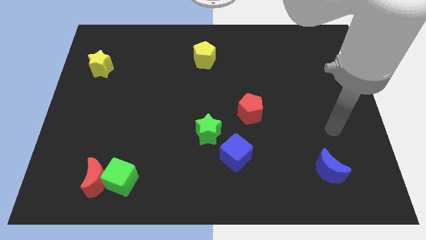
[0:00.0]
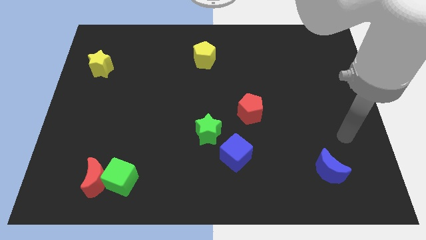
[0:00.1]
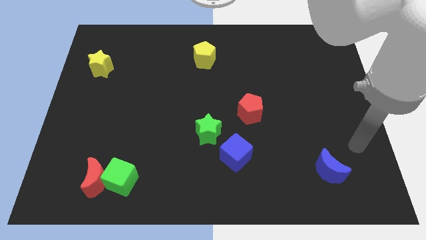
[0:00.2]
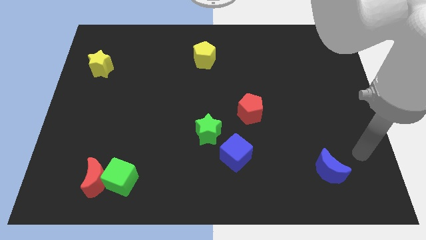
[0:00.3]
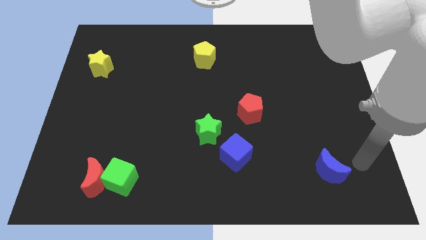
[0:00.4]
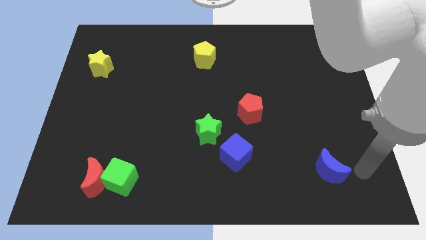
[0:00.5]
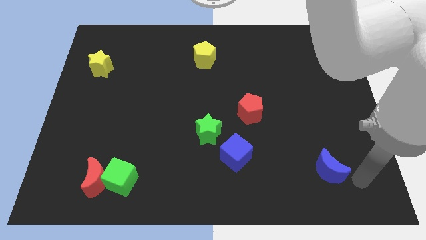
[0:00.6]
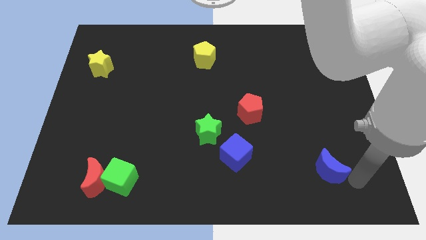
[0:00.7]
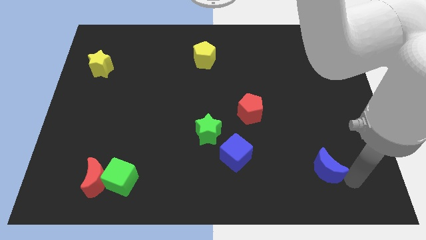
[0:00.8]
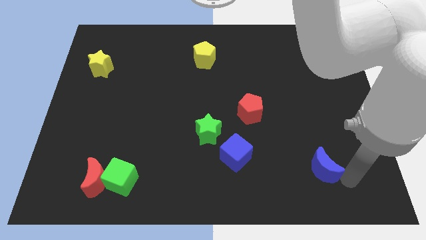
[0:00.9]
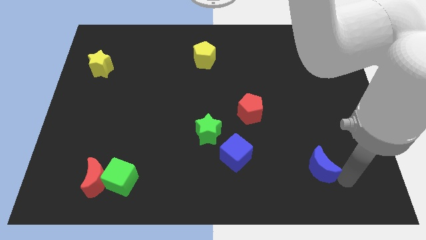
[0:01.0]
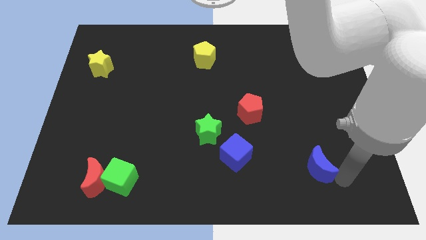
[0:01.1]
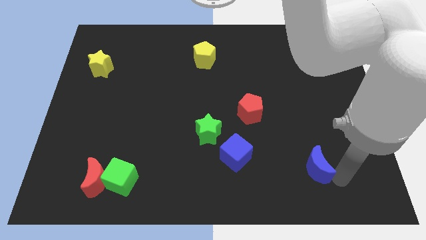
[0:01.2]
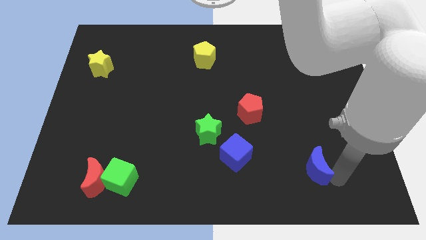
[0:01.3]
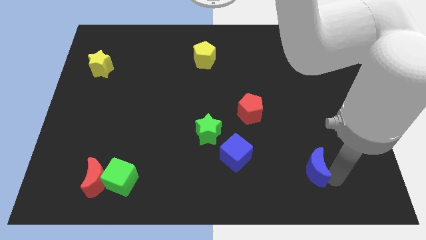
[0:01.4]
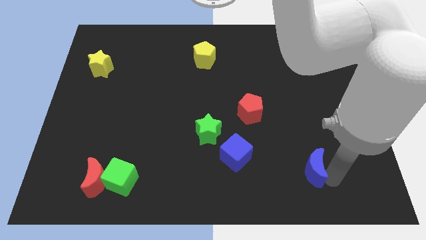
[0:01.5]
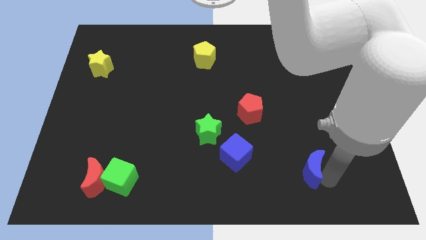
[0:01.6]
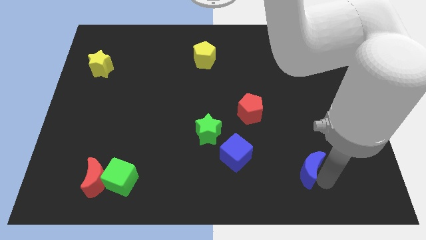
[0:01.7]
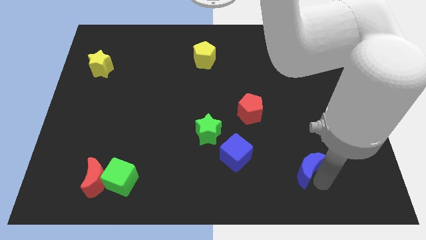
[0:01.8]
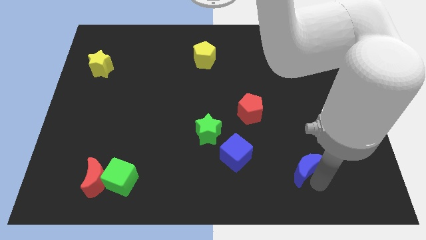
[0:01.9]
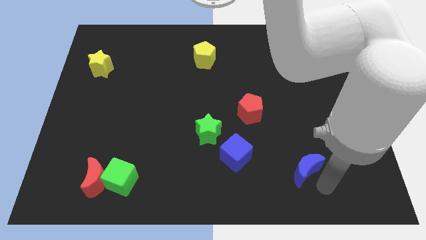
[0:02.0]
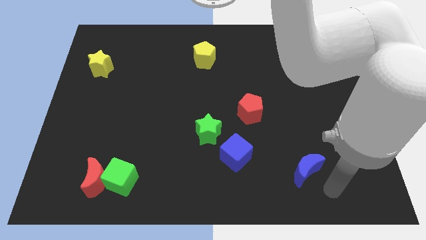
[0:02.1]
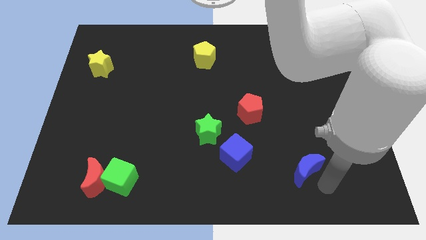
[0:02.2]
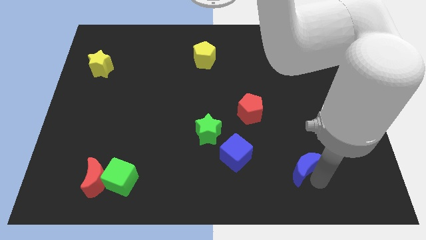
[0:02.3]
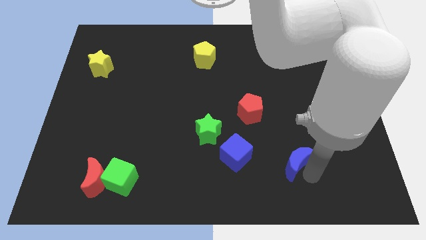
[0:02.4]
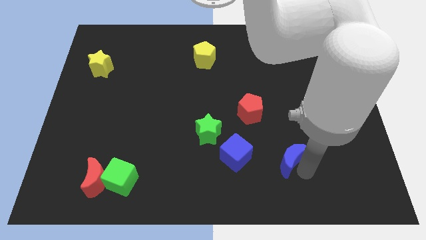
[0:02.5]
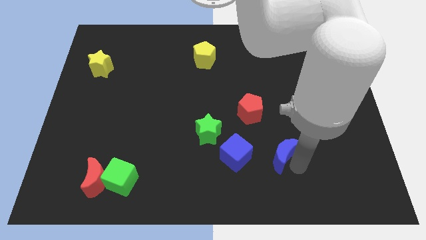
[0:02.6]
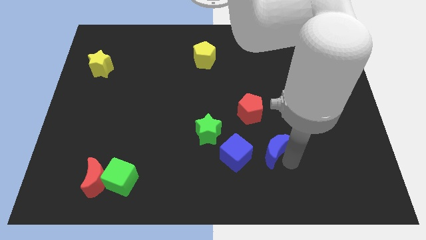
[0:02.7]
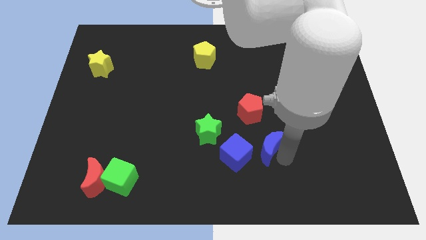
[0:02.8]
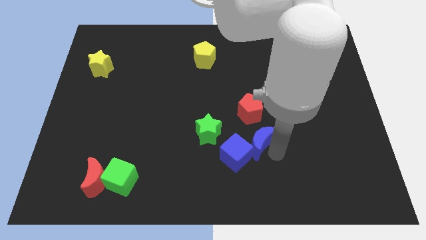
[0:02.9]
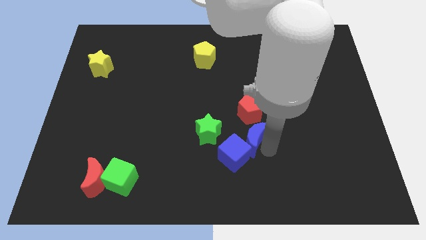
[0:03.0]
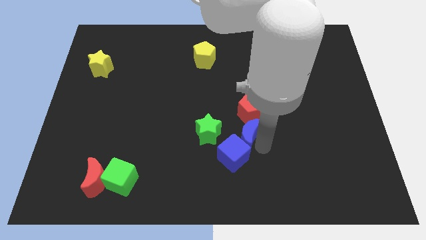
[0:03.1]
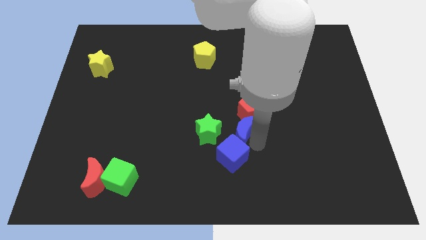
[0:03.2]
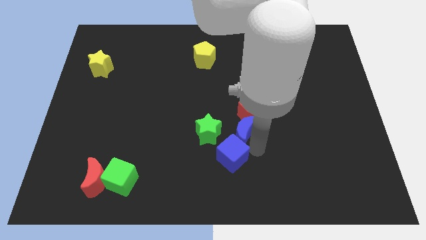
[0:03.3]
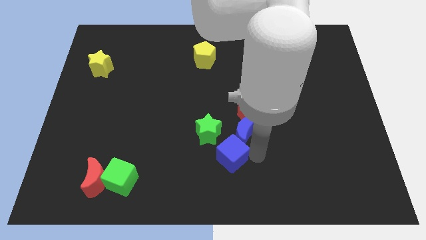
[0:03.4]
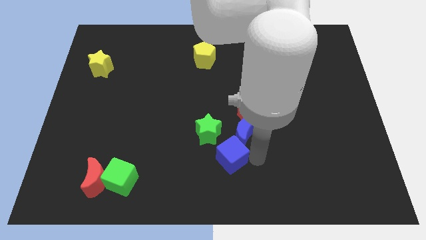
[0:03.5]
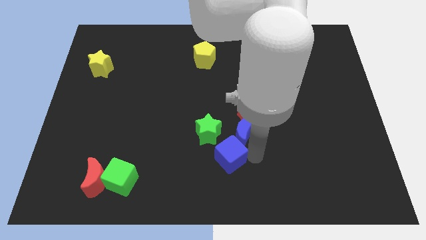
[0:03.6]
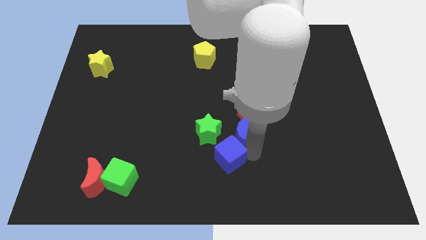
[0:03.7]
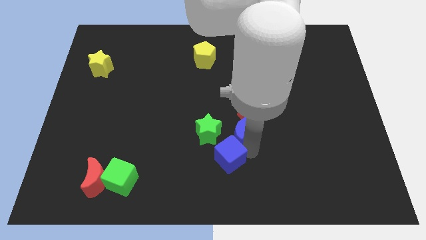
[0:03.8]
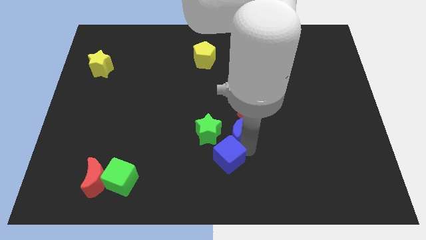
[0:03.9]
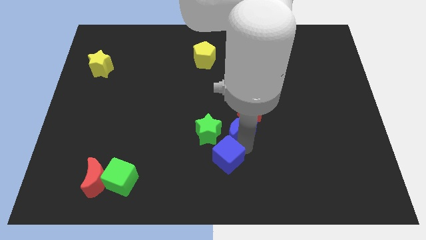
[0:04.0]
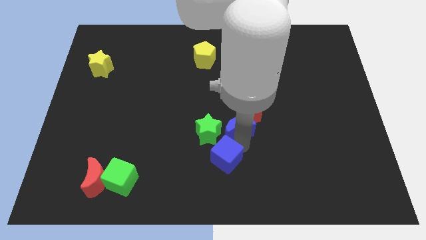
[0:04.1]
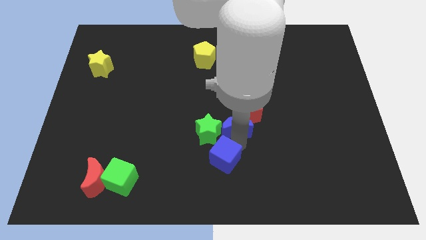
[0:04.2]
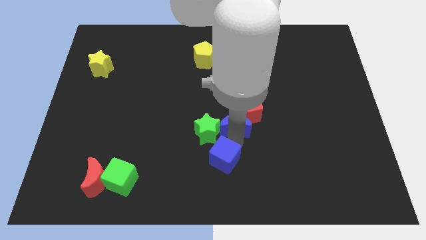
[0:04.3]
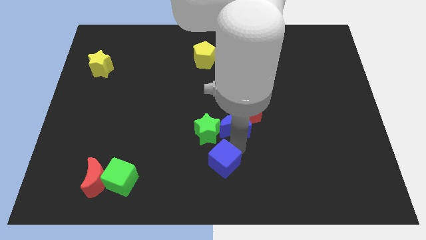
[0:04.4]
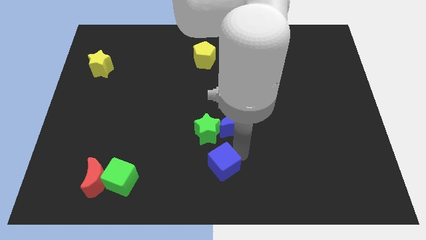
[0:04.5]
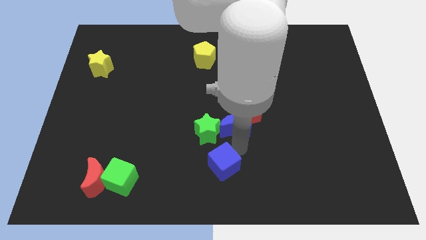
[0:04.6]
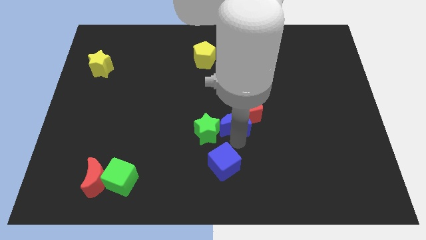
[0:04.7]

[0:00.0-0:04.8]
move the blue moon up and to the left

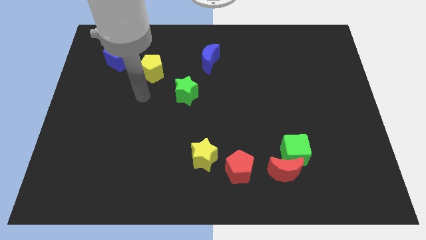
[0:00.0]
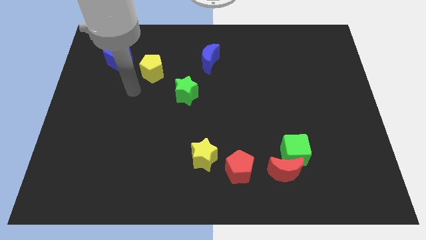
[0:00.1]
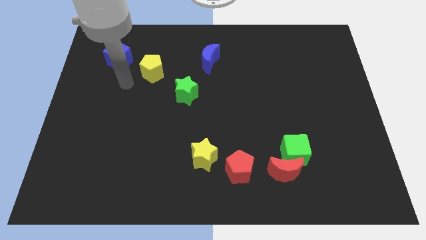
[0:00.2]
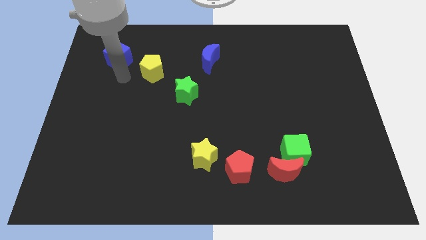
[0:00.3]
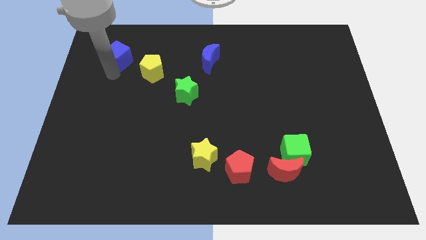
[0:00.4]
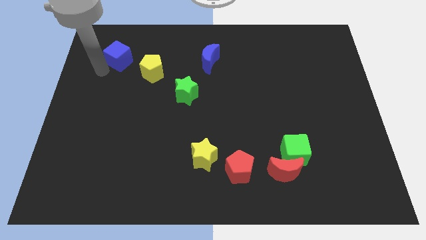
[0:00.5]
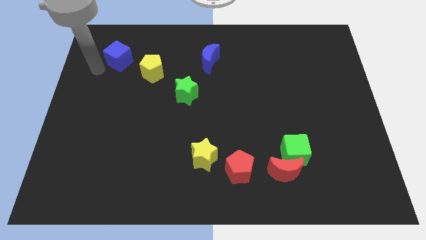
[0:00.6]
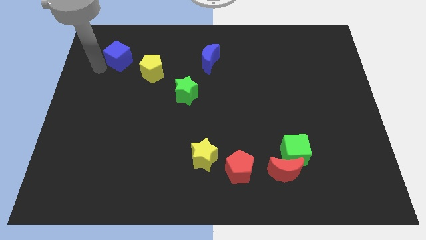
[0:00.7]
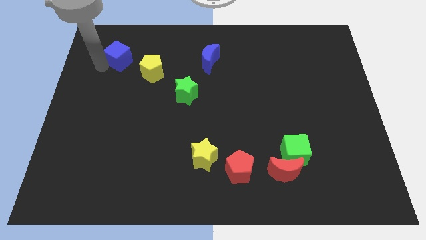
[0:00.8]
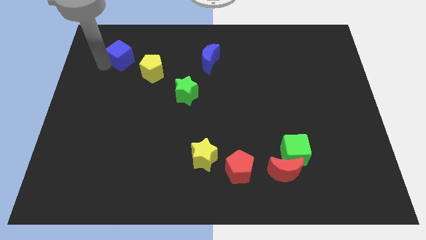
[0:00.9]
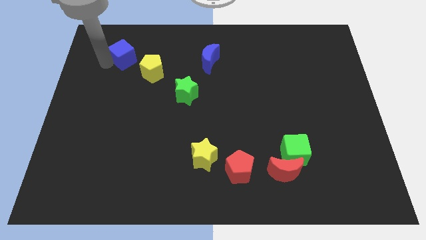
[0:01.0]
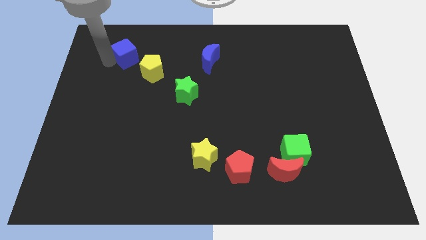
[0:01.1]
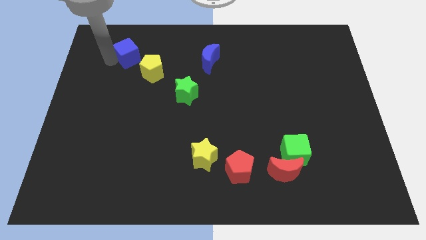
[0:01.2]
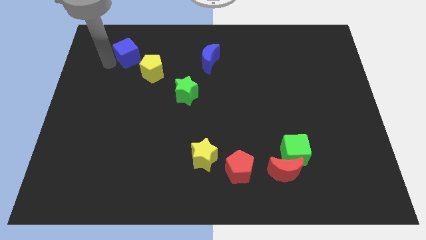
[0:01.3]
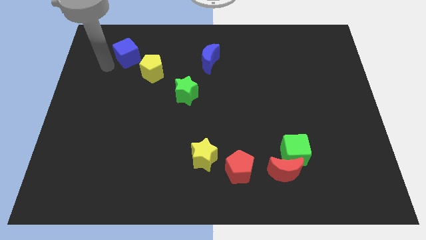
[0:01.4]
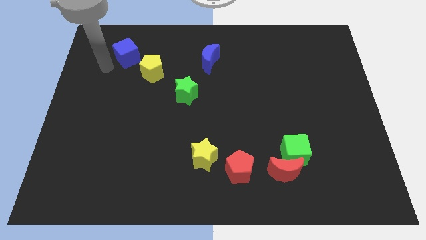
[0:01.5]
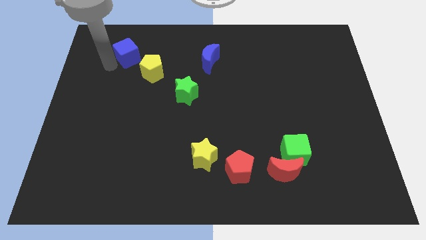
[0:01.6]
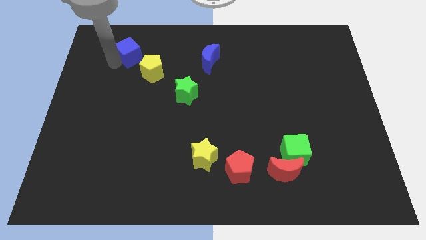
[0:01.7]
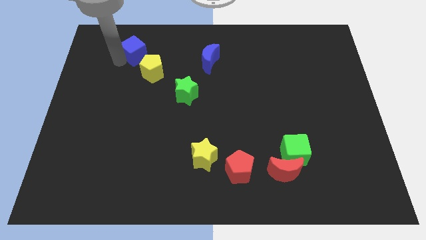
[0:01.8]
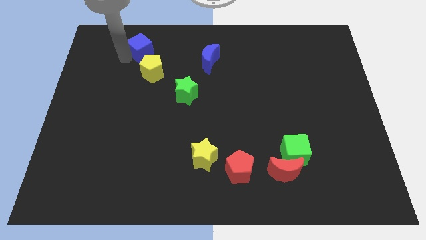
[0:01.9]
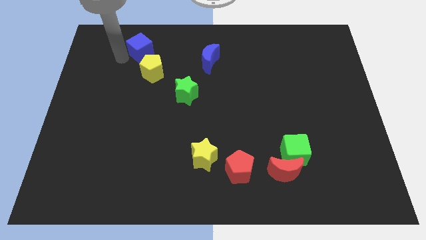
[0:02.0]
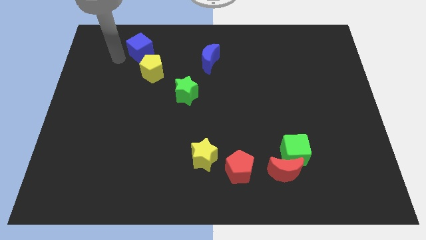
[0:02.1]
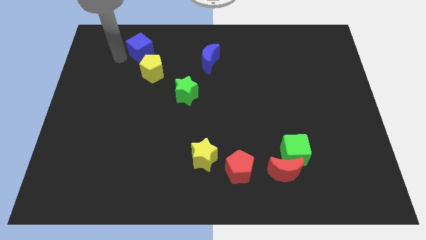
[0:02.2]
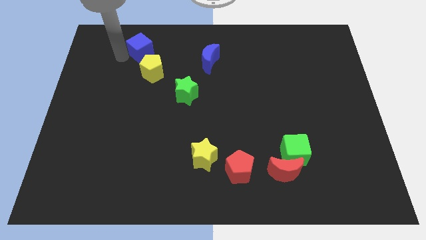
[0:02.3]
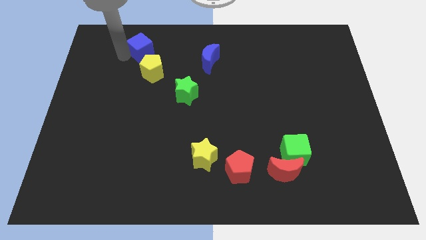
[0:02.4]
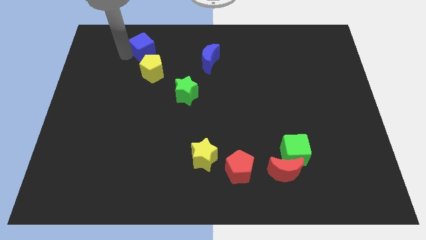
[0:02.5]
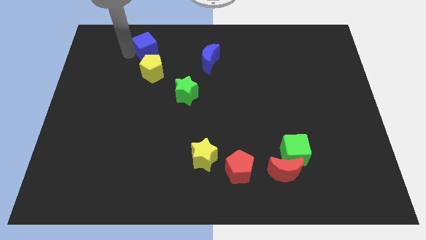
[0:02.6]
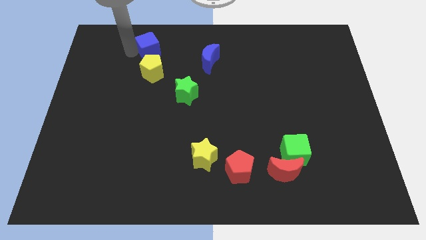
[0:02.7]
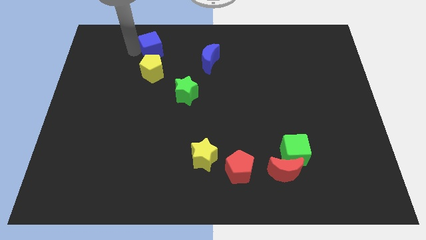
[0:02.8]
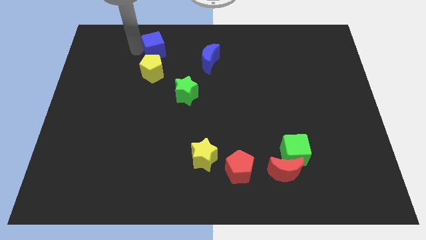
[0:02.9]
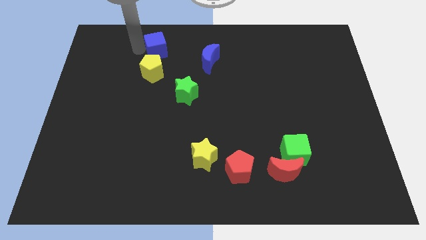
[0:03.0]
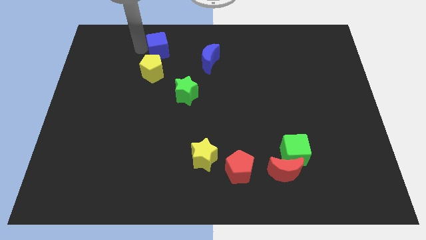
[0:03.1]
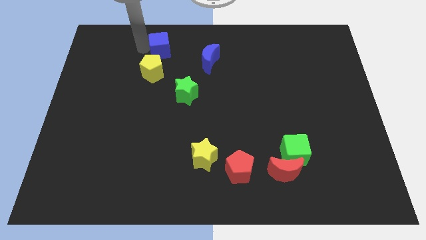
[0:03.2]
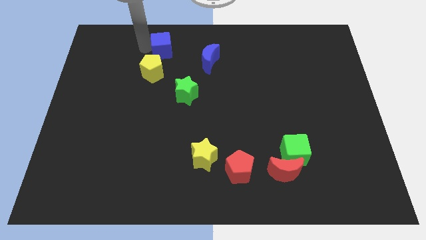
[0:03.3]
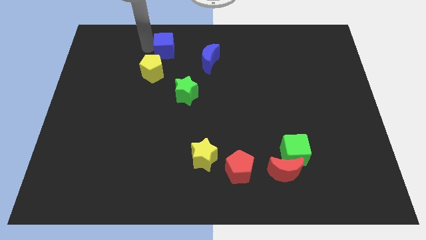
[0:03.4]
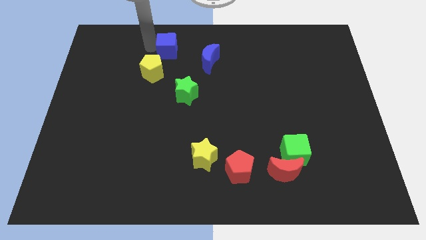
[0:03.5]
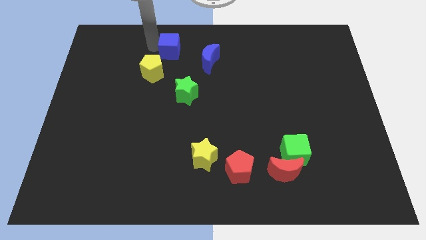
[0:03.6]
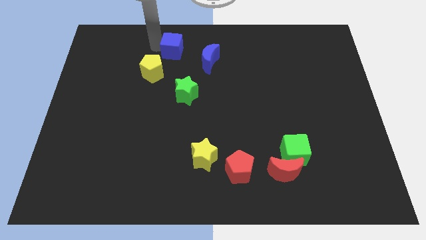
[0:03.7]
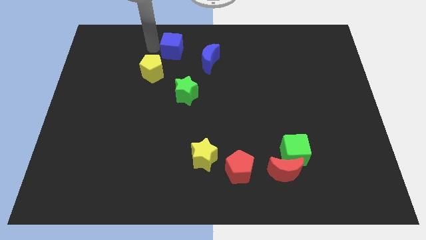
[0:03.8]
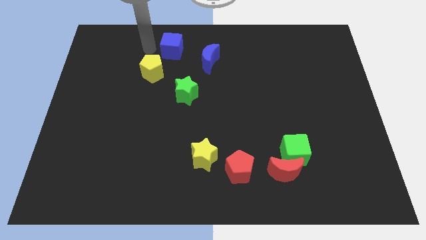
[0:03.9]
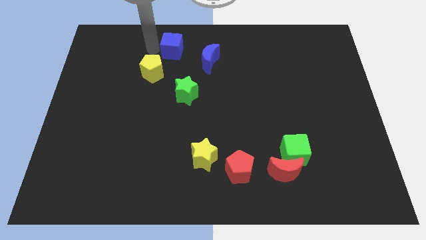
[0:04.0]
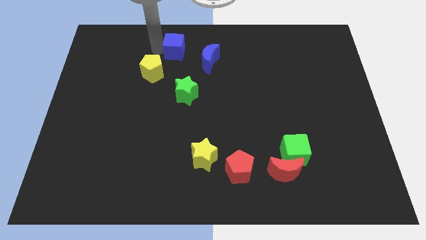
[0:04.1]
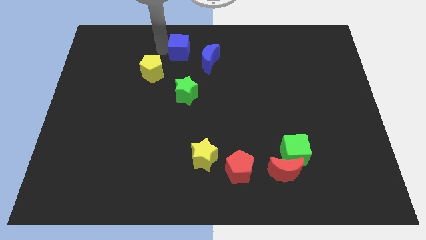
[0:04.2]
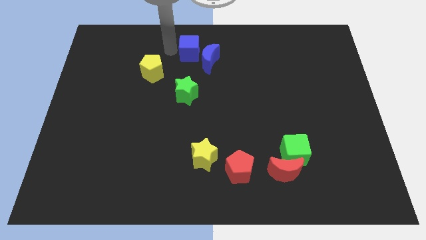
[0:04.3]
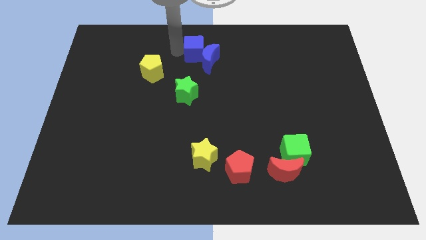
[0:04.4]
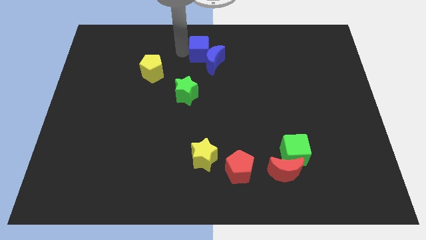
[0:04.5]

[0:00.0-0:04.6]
slide the blue cube to the right
